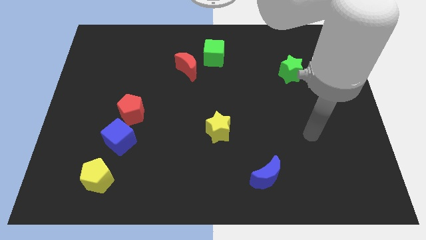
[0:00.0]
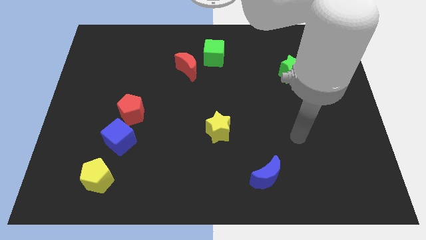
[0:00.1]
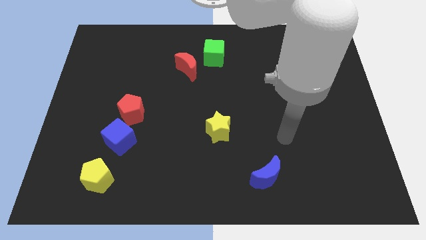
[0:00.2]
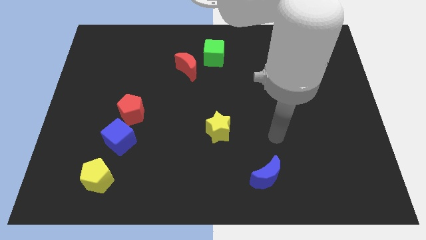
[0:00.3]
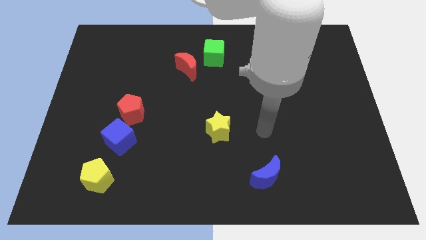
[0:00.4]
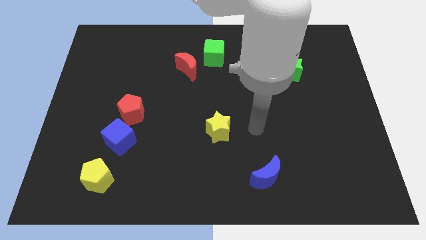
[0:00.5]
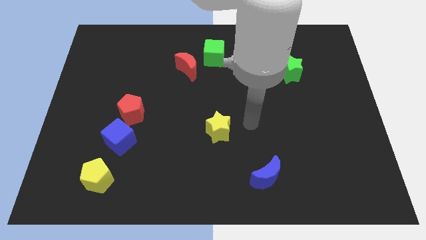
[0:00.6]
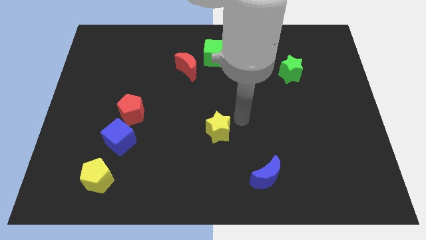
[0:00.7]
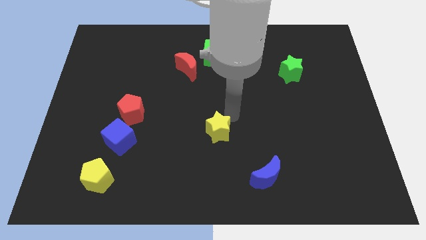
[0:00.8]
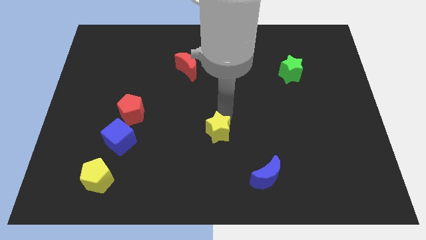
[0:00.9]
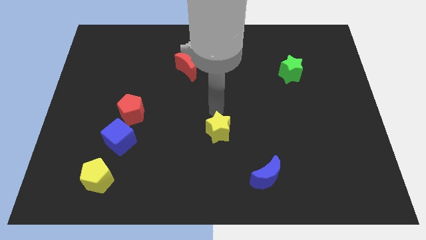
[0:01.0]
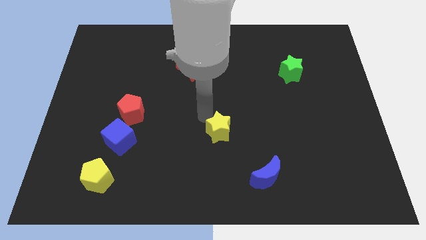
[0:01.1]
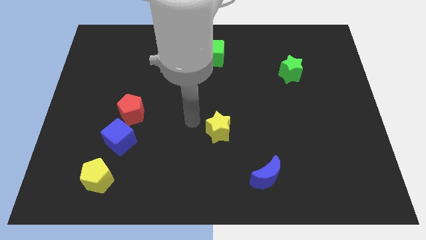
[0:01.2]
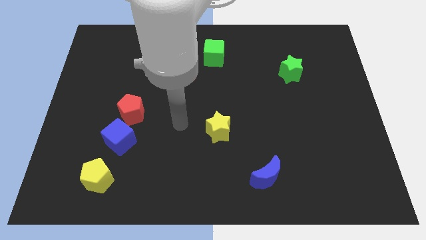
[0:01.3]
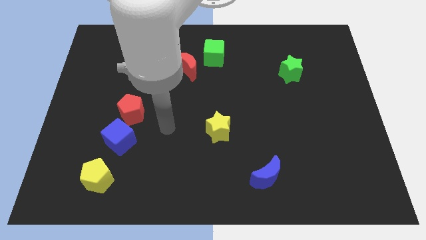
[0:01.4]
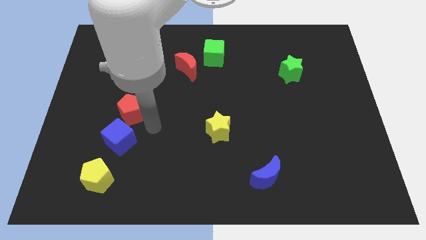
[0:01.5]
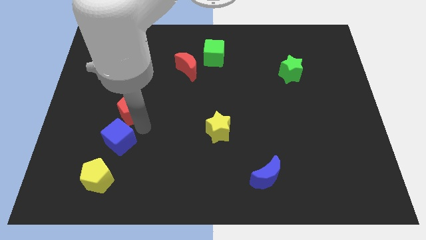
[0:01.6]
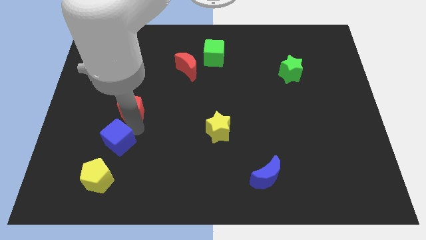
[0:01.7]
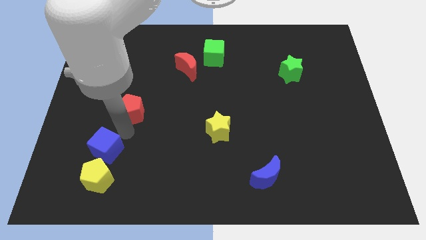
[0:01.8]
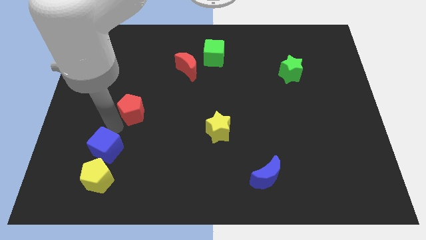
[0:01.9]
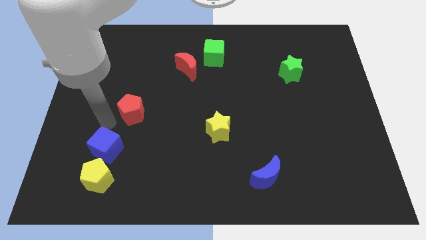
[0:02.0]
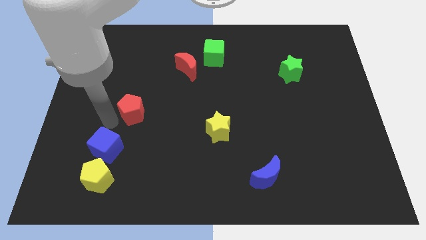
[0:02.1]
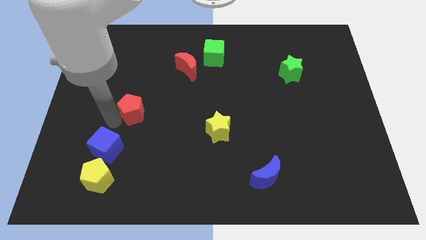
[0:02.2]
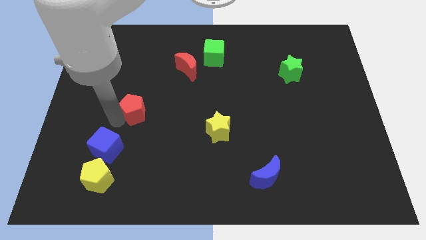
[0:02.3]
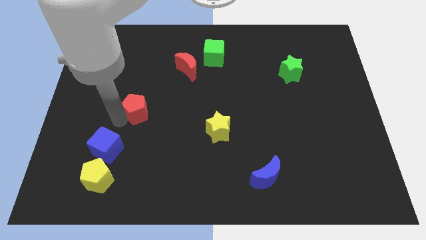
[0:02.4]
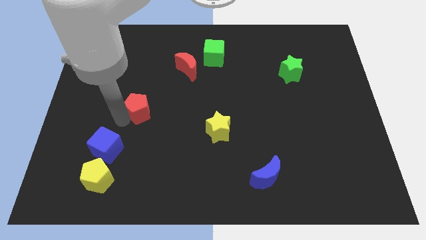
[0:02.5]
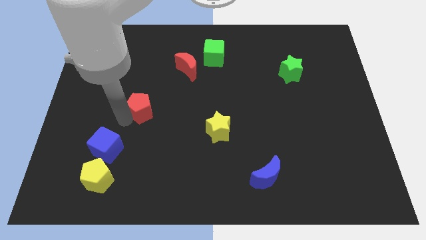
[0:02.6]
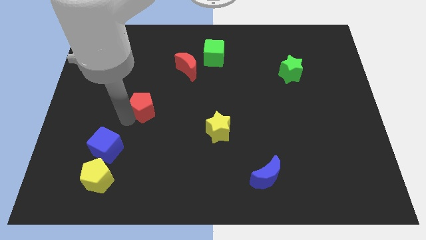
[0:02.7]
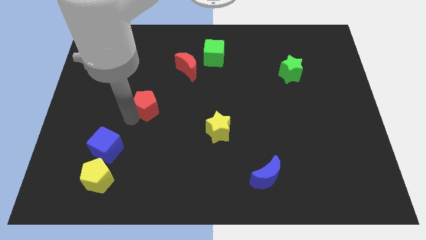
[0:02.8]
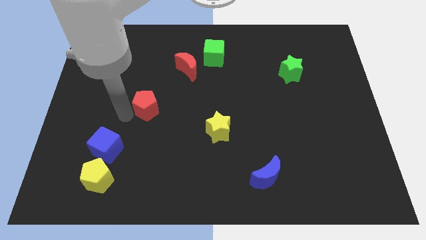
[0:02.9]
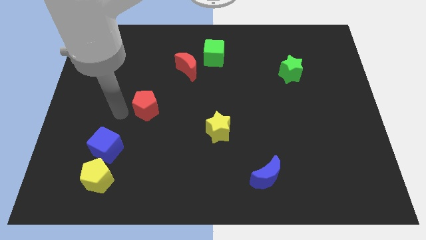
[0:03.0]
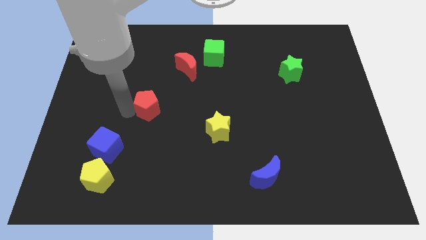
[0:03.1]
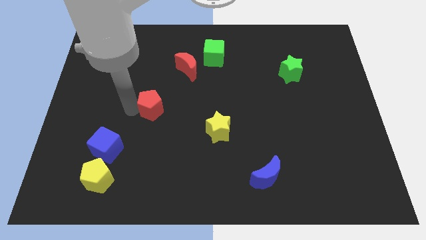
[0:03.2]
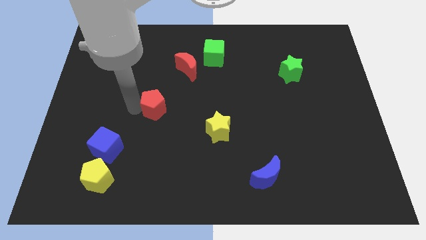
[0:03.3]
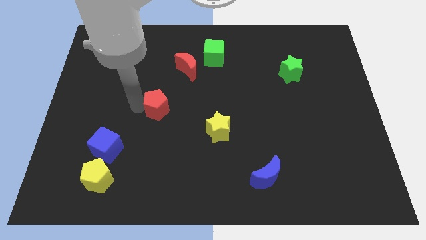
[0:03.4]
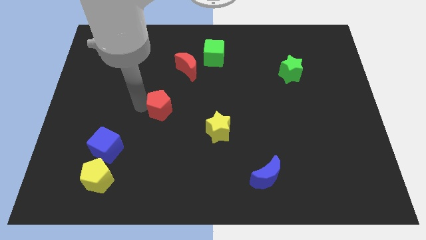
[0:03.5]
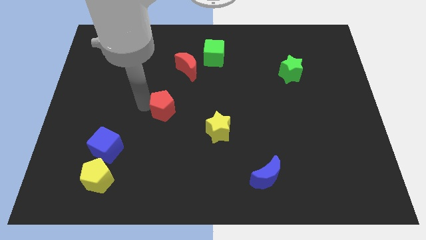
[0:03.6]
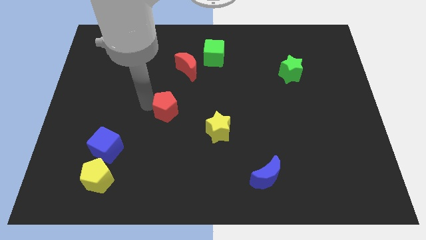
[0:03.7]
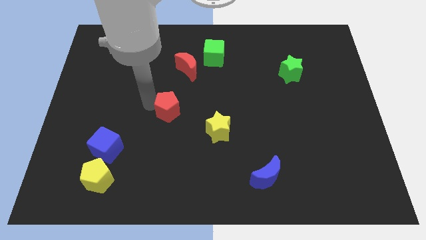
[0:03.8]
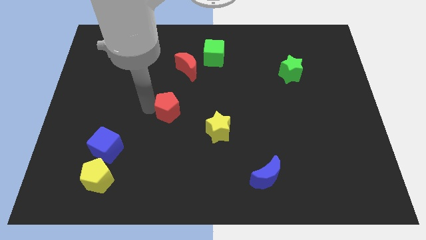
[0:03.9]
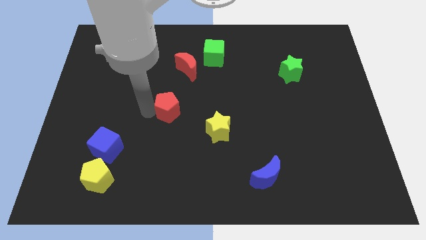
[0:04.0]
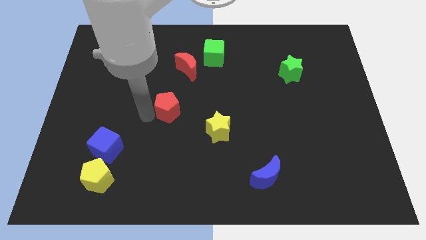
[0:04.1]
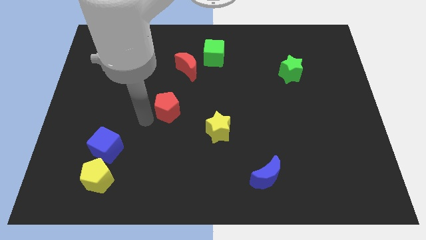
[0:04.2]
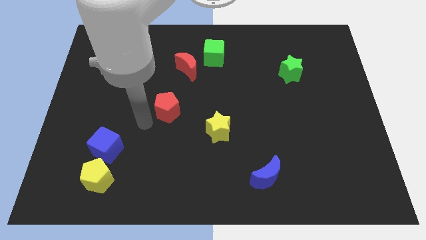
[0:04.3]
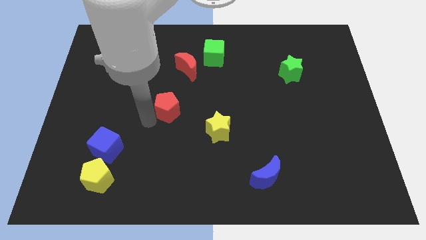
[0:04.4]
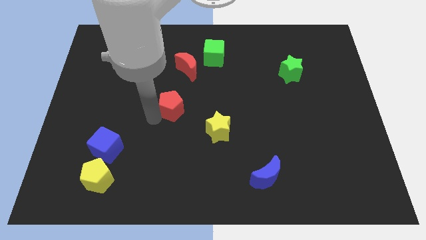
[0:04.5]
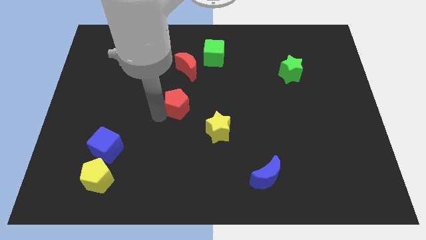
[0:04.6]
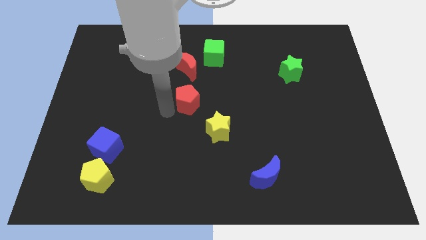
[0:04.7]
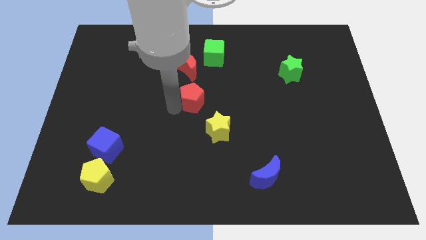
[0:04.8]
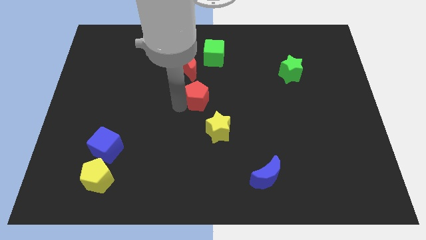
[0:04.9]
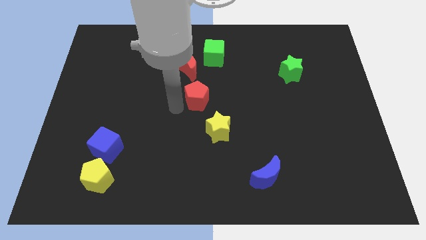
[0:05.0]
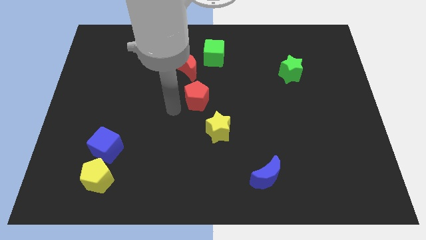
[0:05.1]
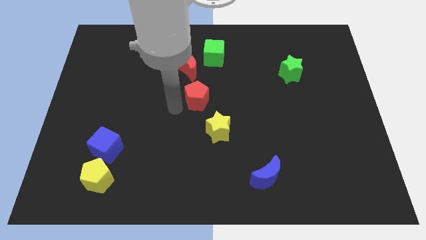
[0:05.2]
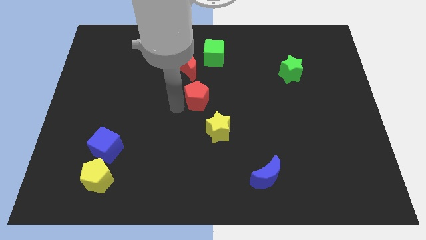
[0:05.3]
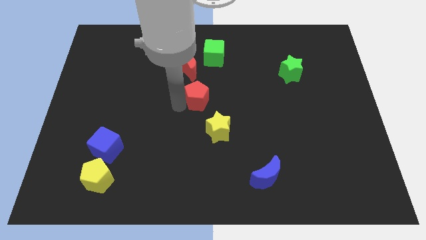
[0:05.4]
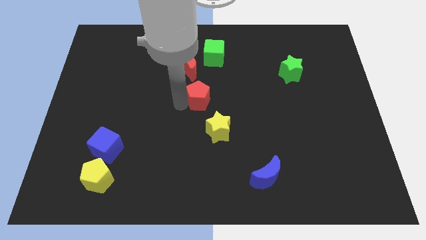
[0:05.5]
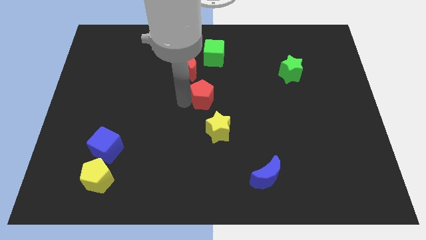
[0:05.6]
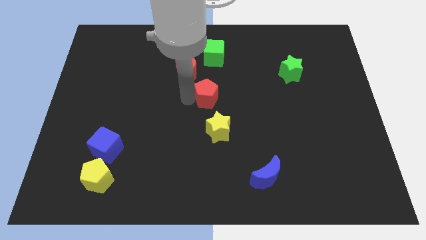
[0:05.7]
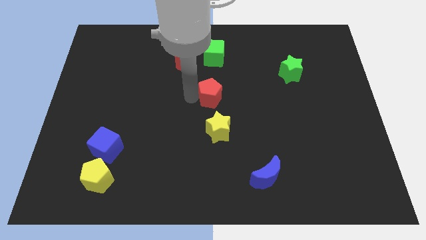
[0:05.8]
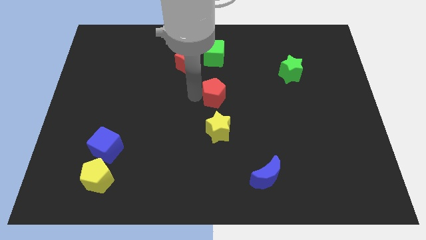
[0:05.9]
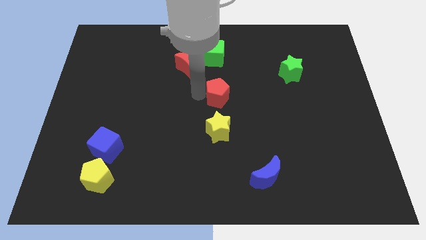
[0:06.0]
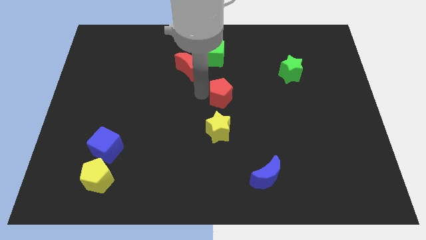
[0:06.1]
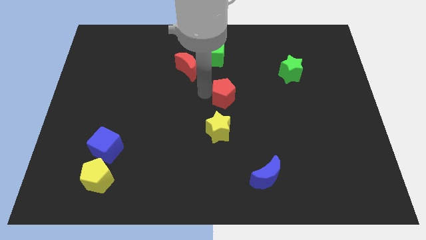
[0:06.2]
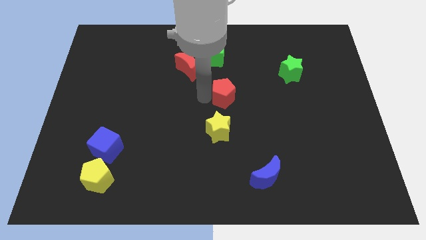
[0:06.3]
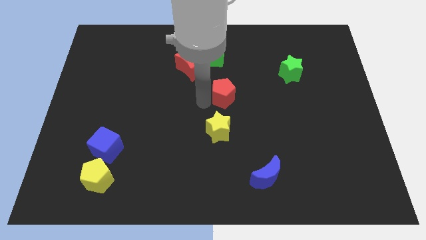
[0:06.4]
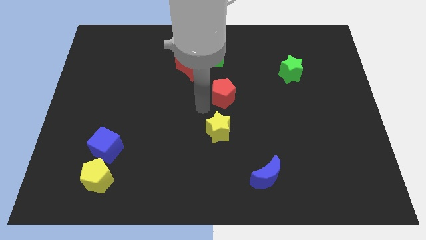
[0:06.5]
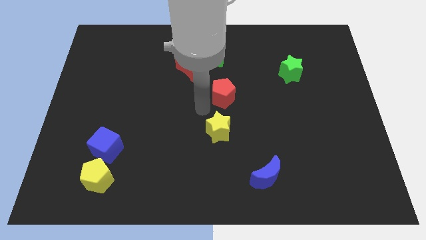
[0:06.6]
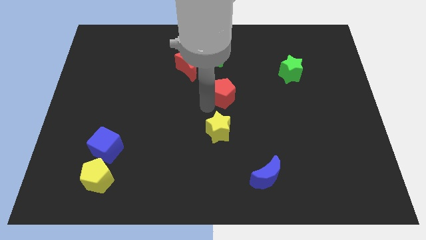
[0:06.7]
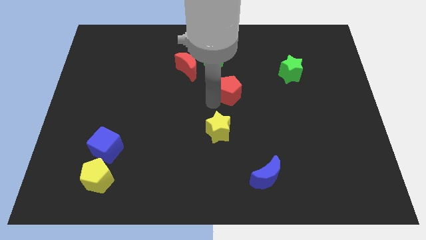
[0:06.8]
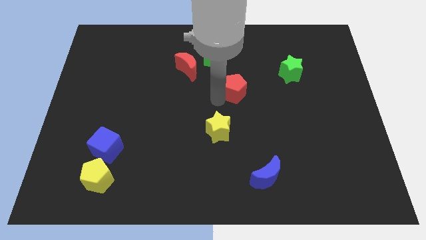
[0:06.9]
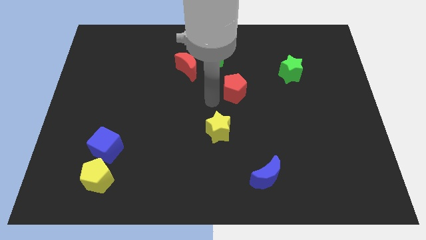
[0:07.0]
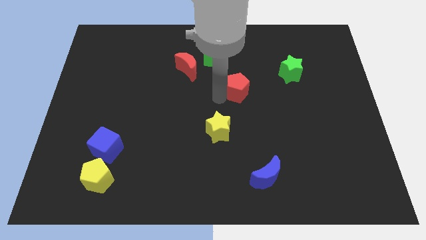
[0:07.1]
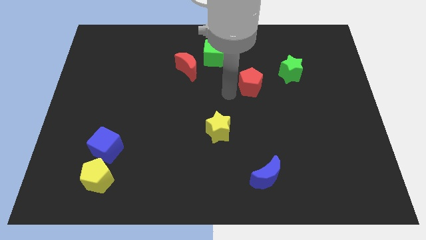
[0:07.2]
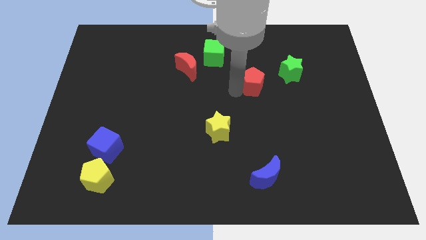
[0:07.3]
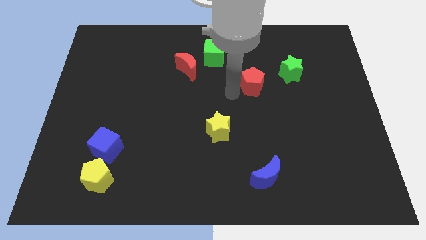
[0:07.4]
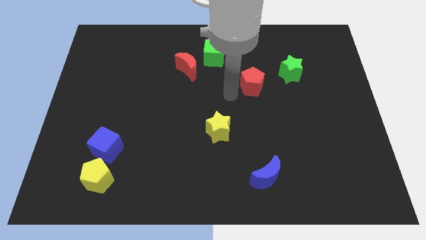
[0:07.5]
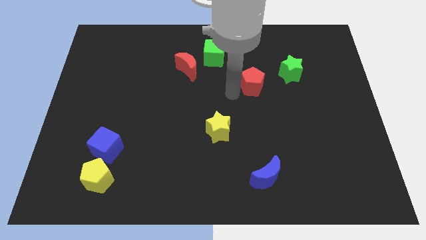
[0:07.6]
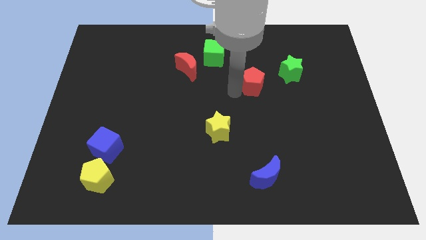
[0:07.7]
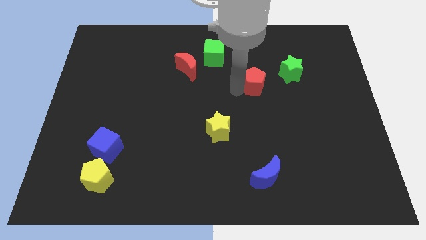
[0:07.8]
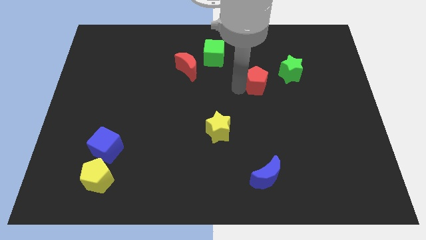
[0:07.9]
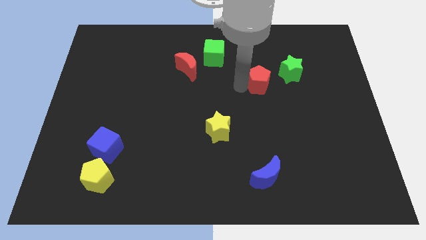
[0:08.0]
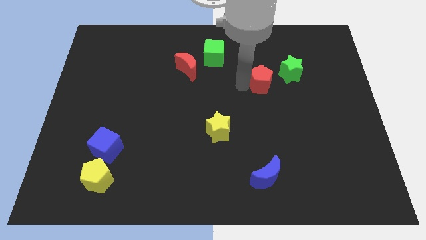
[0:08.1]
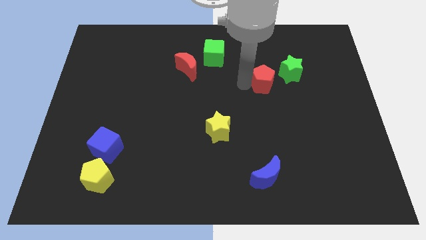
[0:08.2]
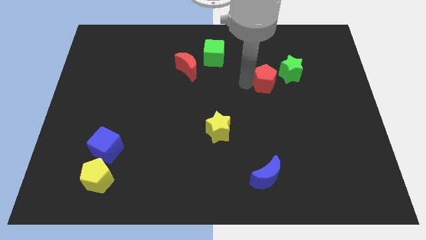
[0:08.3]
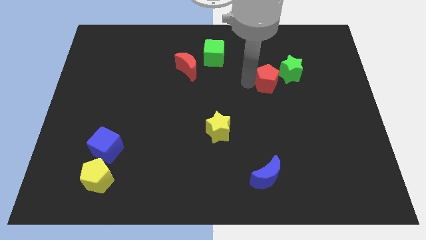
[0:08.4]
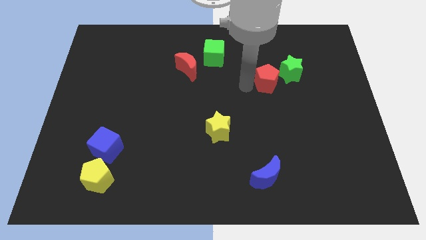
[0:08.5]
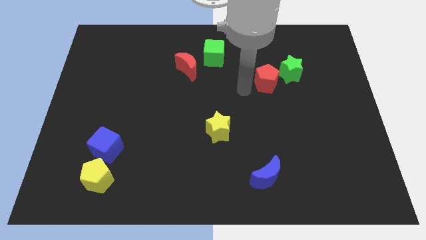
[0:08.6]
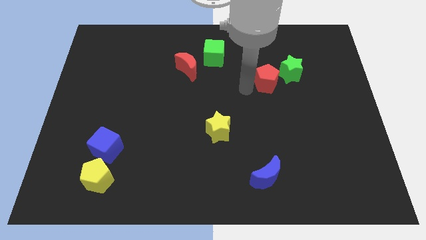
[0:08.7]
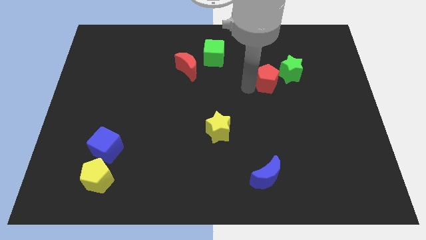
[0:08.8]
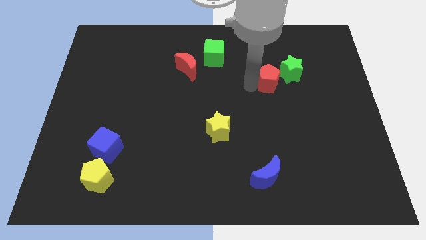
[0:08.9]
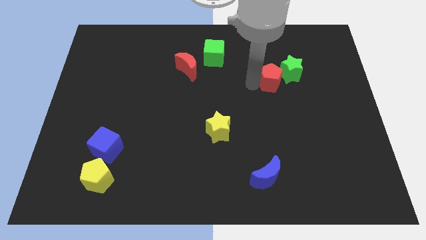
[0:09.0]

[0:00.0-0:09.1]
move the red pentagon close to the green star
